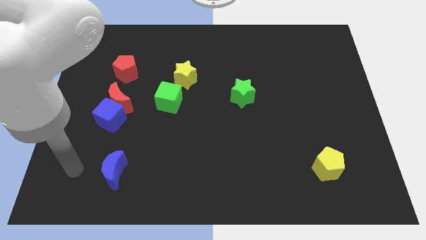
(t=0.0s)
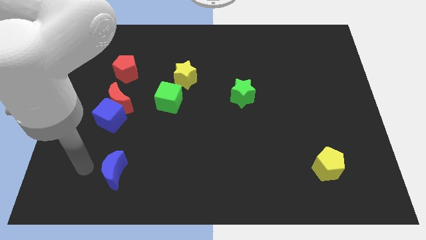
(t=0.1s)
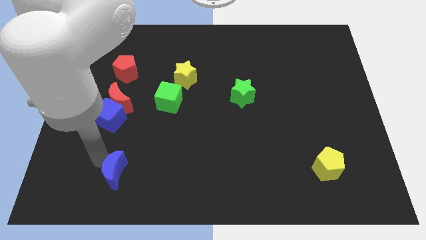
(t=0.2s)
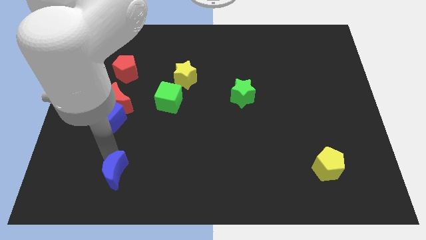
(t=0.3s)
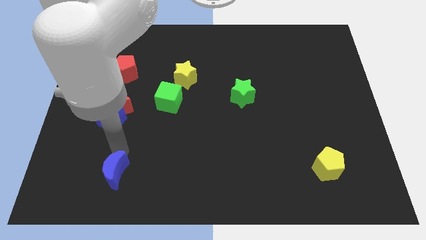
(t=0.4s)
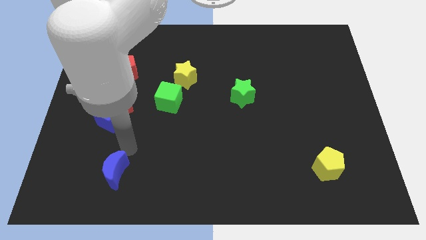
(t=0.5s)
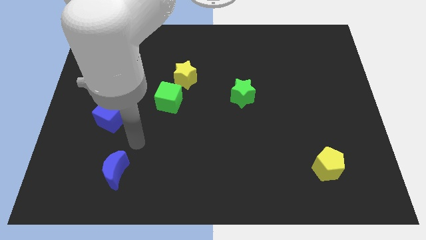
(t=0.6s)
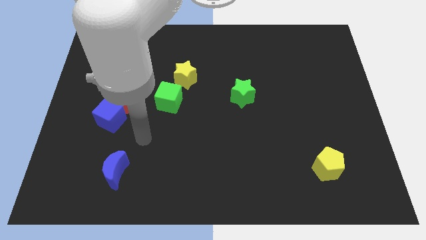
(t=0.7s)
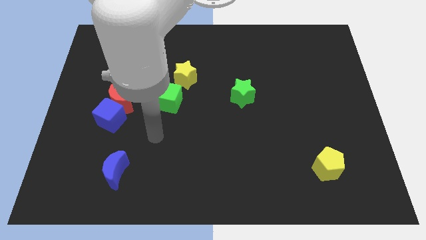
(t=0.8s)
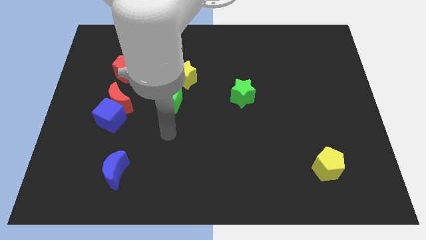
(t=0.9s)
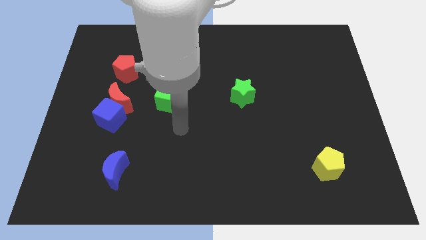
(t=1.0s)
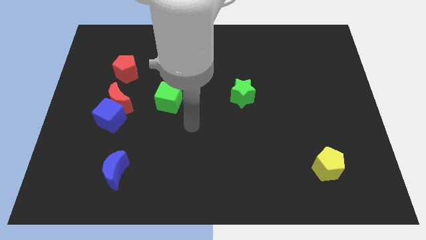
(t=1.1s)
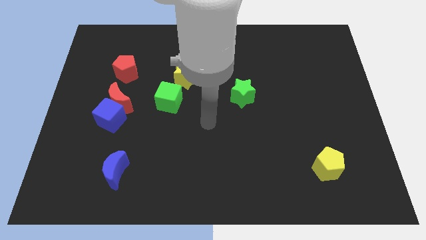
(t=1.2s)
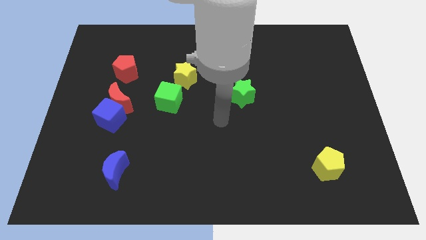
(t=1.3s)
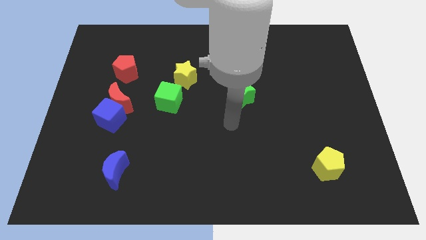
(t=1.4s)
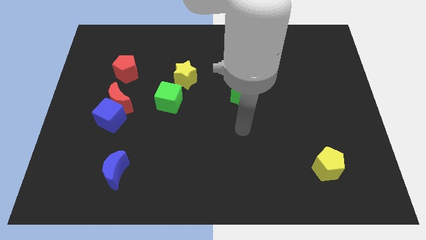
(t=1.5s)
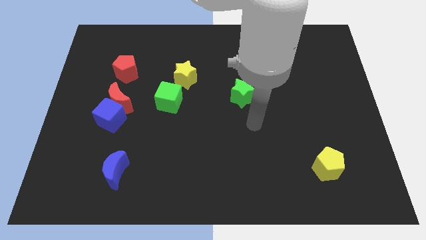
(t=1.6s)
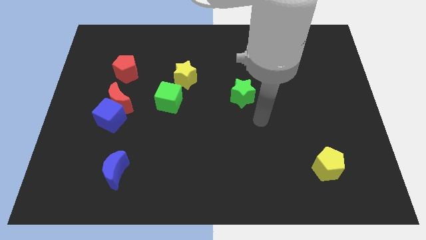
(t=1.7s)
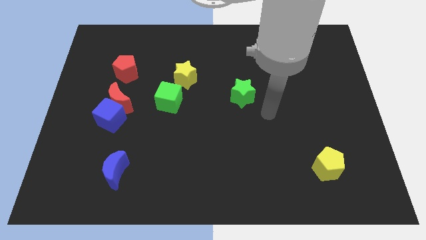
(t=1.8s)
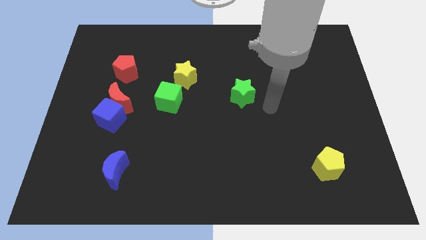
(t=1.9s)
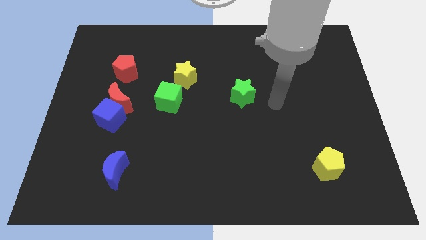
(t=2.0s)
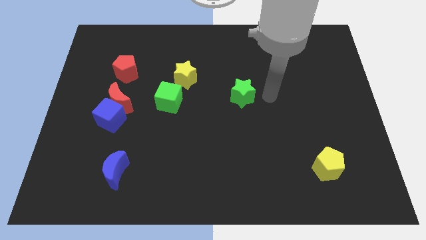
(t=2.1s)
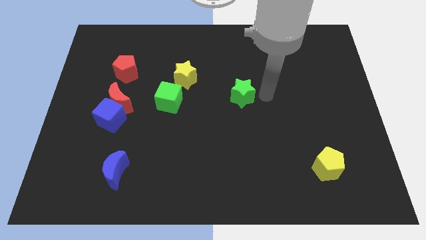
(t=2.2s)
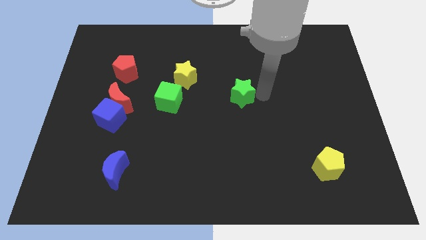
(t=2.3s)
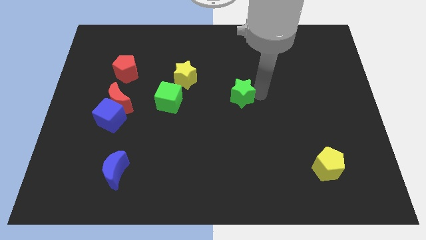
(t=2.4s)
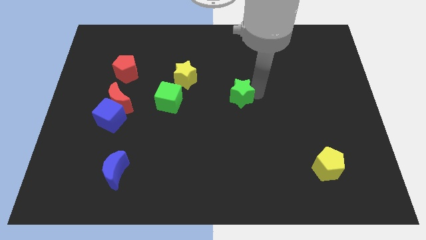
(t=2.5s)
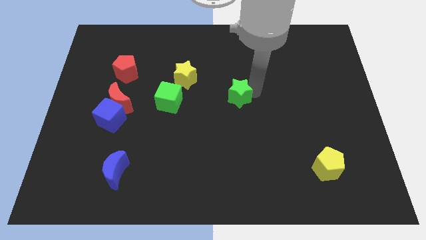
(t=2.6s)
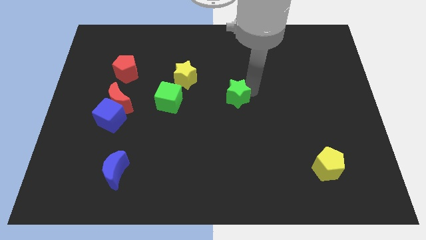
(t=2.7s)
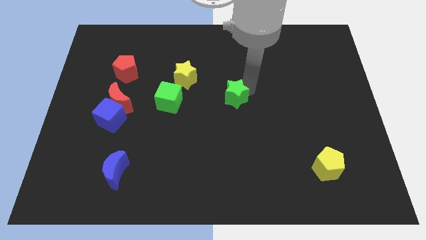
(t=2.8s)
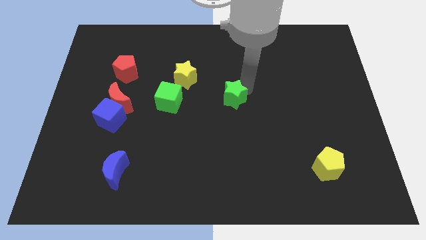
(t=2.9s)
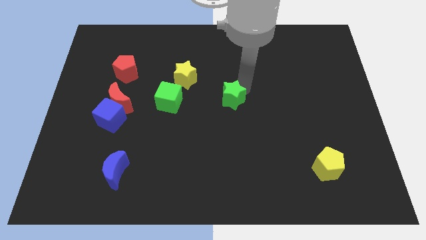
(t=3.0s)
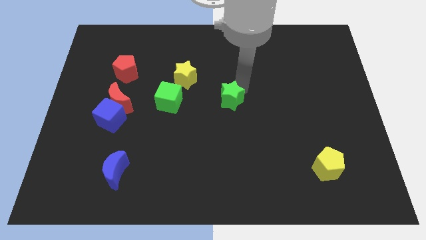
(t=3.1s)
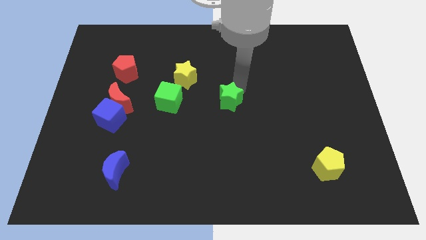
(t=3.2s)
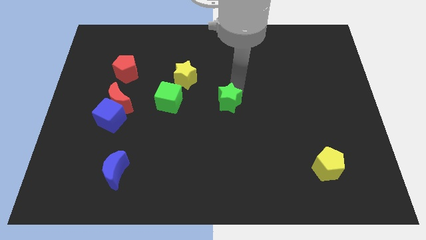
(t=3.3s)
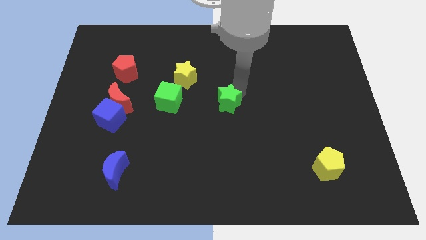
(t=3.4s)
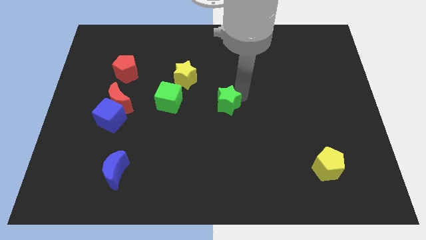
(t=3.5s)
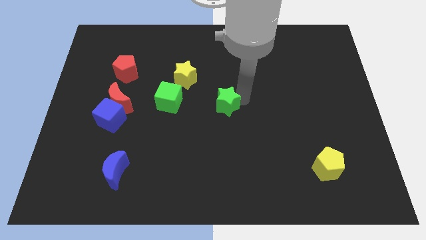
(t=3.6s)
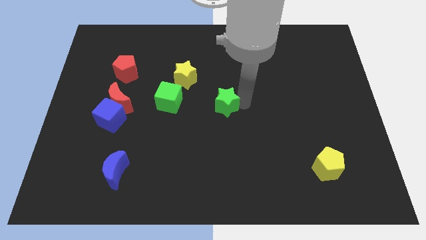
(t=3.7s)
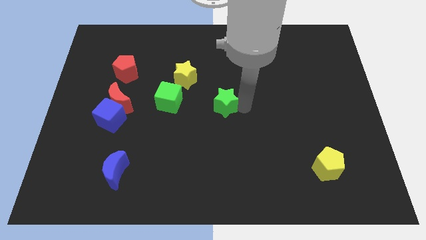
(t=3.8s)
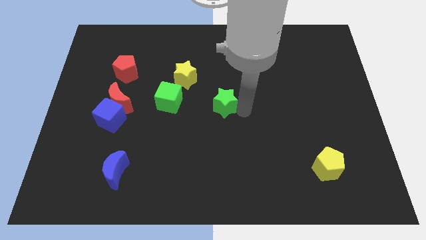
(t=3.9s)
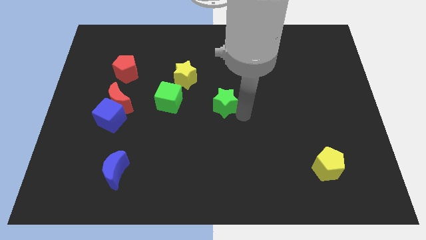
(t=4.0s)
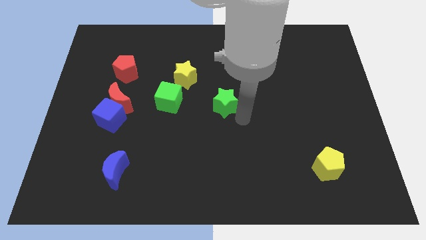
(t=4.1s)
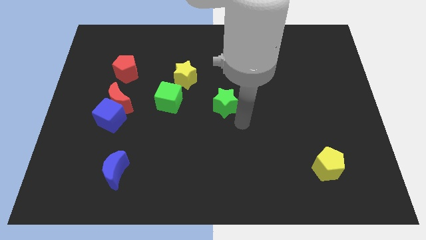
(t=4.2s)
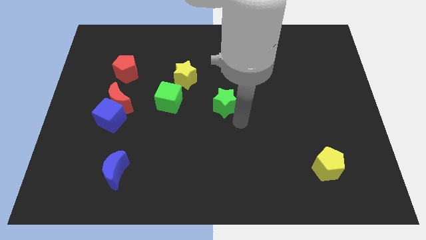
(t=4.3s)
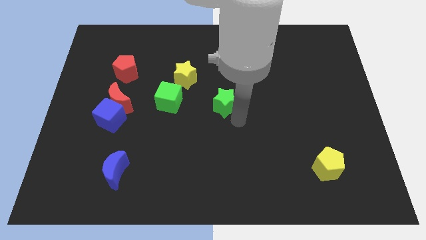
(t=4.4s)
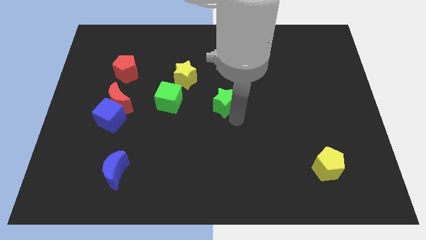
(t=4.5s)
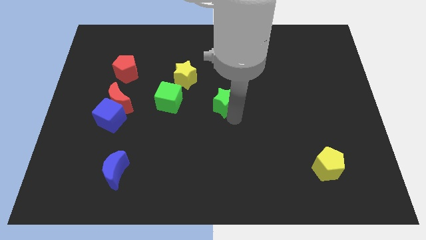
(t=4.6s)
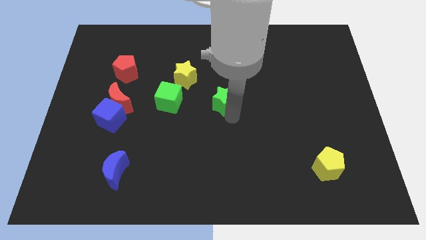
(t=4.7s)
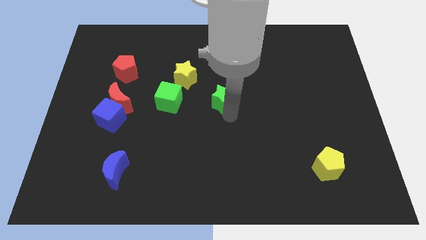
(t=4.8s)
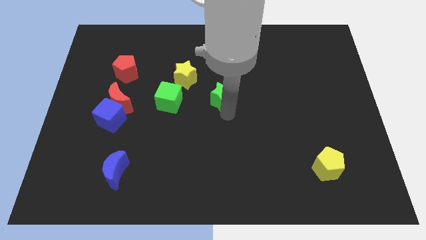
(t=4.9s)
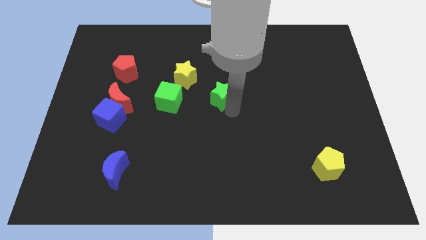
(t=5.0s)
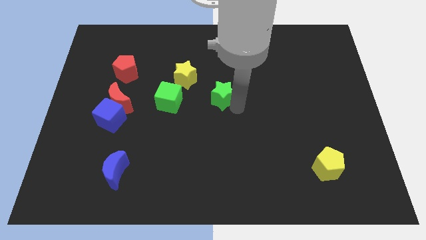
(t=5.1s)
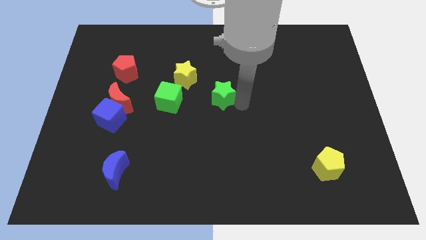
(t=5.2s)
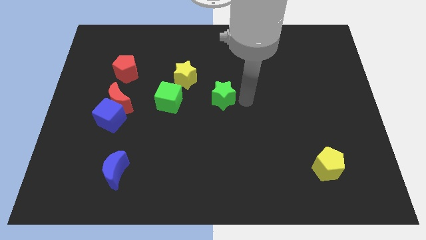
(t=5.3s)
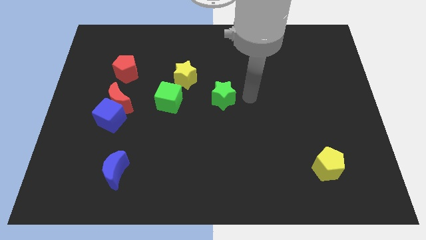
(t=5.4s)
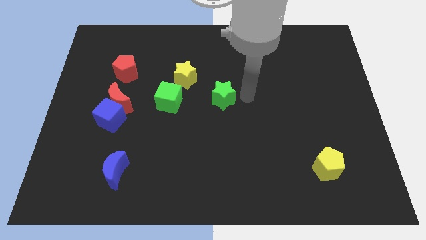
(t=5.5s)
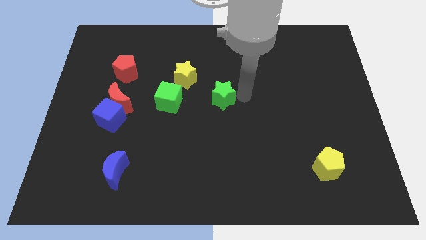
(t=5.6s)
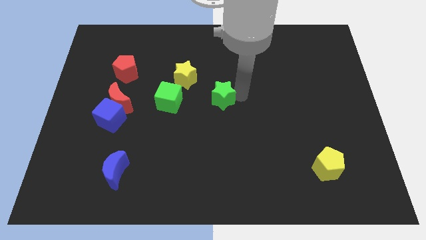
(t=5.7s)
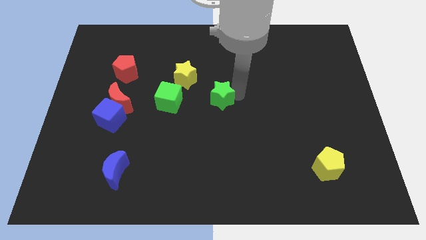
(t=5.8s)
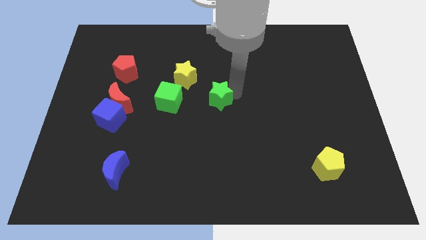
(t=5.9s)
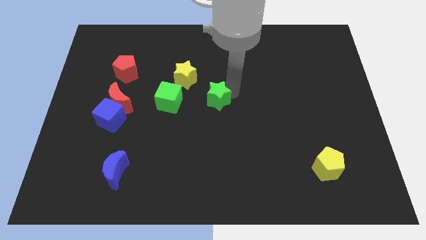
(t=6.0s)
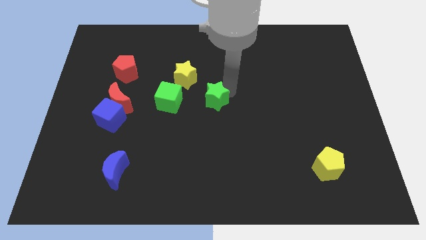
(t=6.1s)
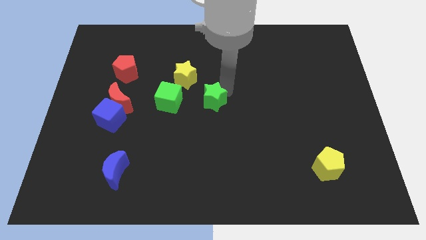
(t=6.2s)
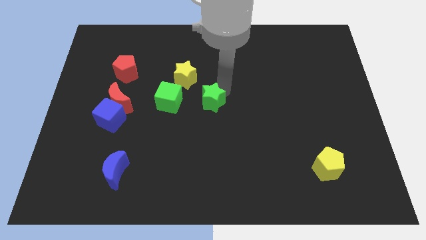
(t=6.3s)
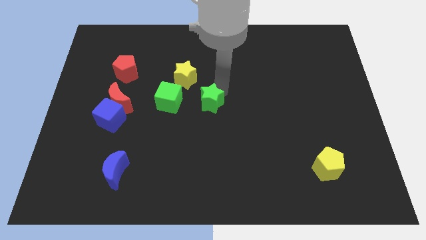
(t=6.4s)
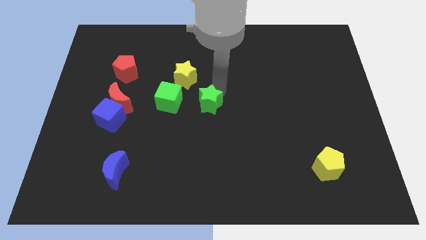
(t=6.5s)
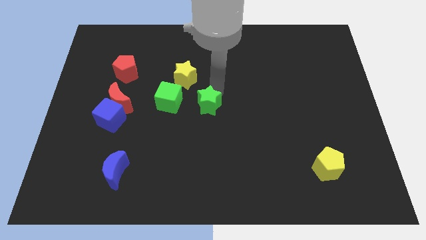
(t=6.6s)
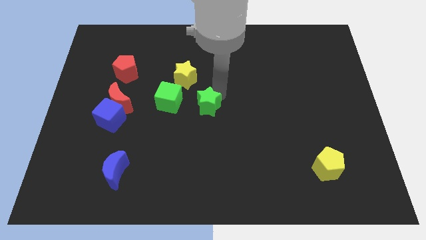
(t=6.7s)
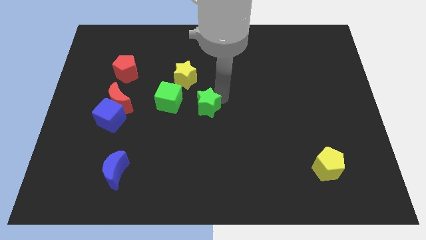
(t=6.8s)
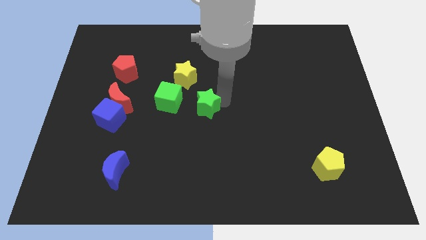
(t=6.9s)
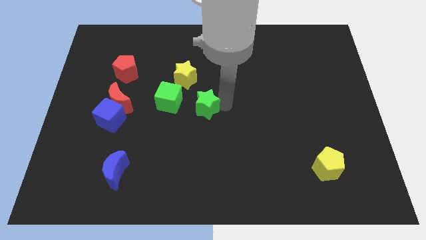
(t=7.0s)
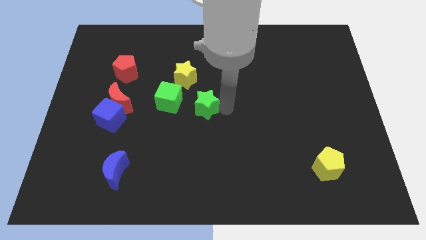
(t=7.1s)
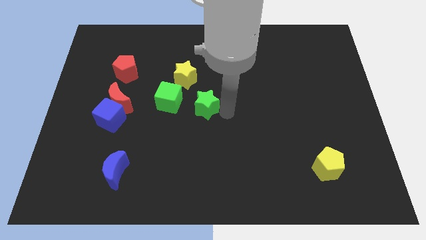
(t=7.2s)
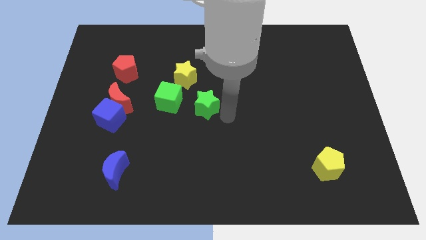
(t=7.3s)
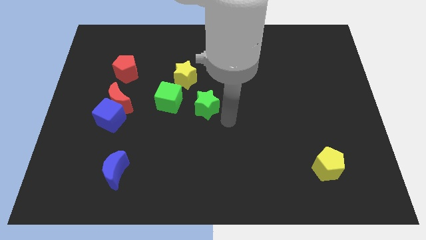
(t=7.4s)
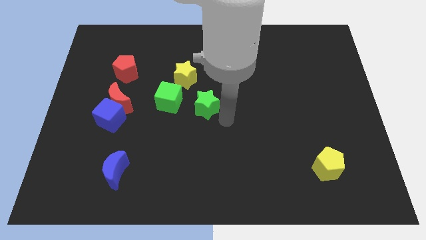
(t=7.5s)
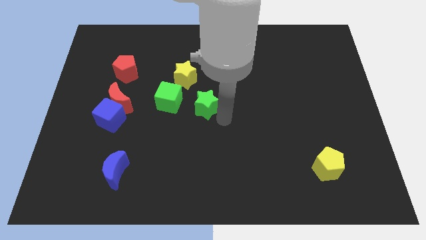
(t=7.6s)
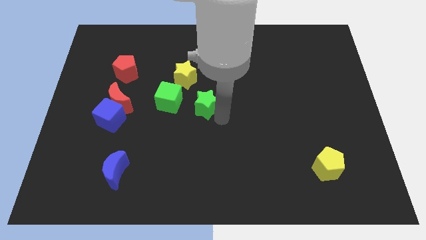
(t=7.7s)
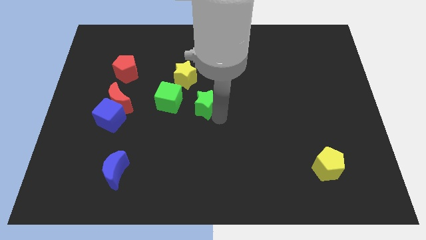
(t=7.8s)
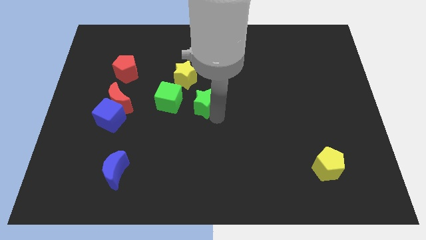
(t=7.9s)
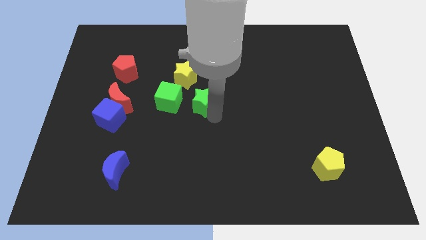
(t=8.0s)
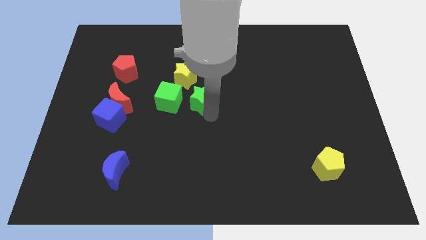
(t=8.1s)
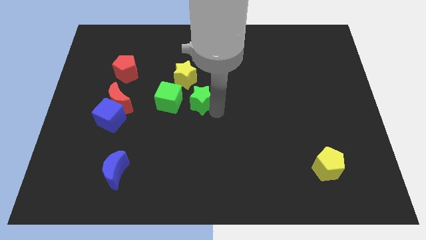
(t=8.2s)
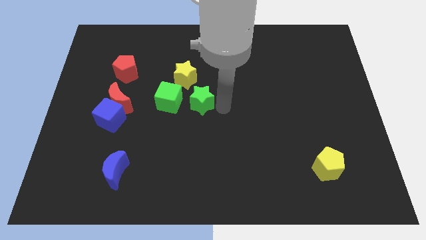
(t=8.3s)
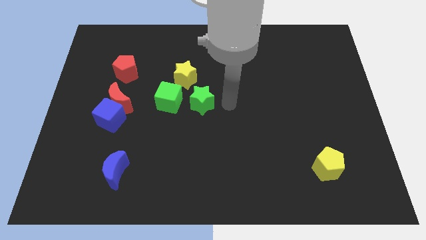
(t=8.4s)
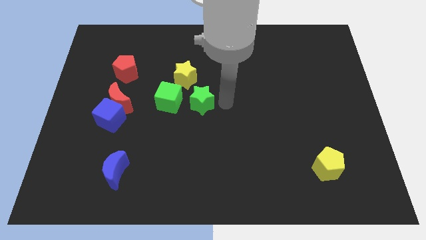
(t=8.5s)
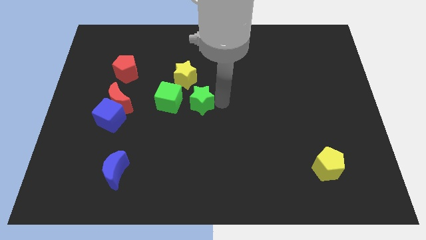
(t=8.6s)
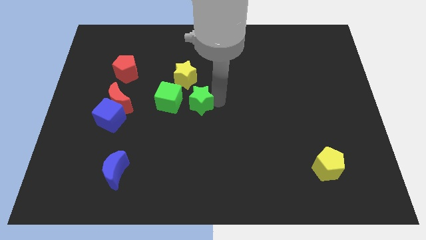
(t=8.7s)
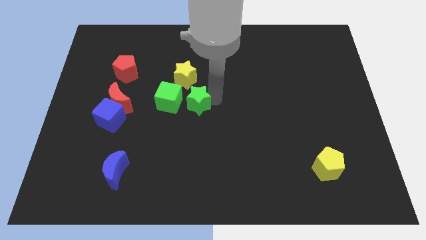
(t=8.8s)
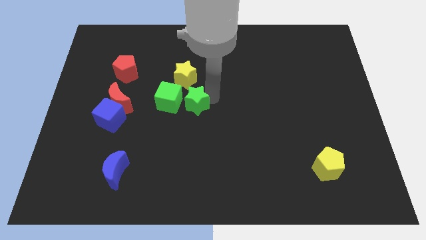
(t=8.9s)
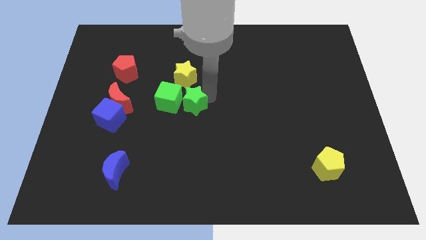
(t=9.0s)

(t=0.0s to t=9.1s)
push the green star to the green cube
